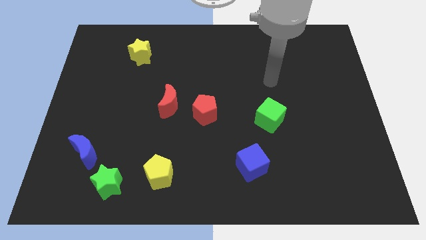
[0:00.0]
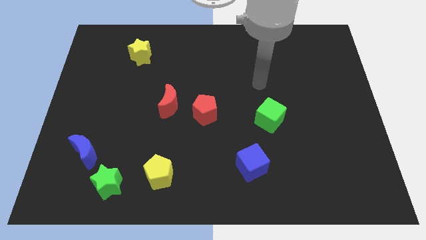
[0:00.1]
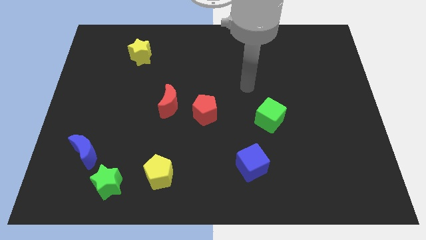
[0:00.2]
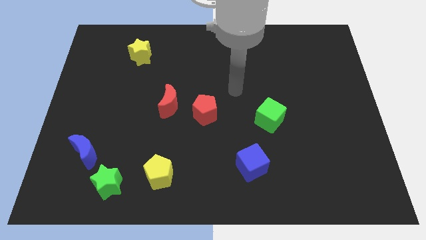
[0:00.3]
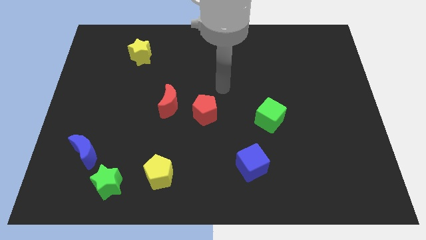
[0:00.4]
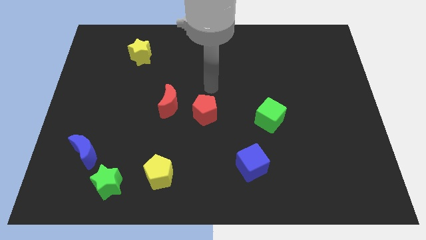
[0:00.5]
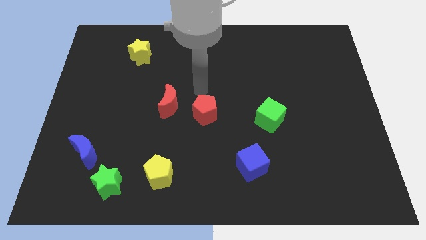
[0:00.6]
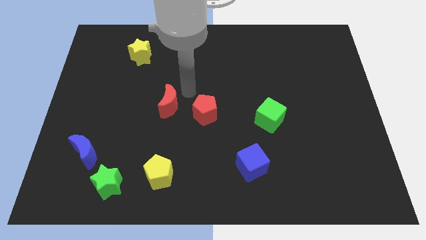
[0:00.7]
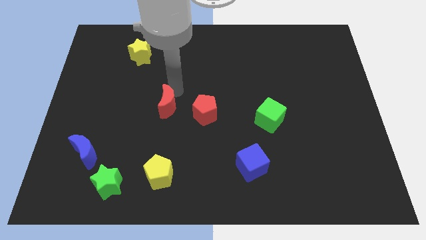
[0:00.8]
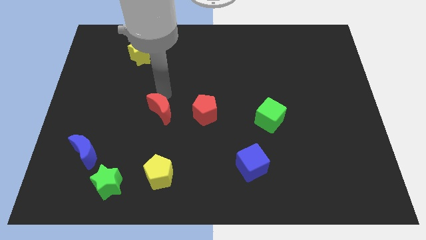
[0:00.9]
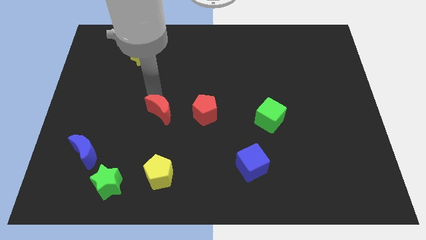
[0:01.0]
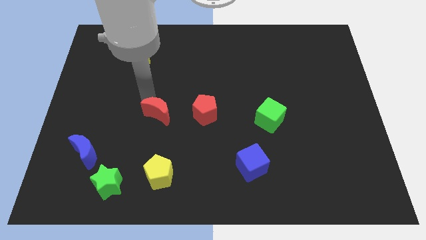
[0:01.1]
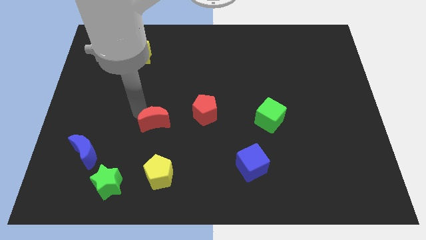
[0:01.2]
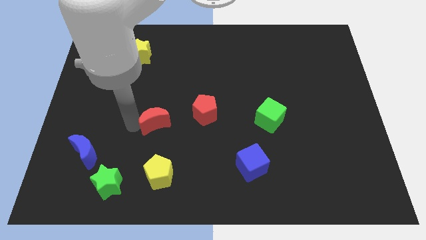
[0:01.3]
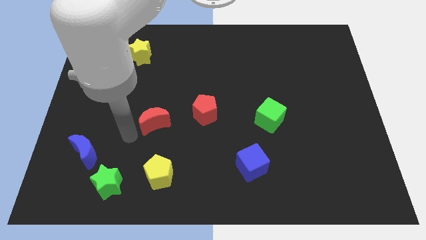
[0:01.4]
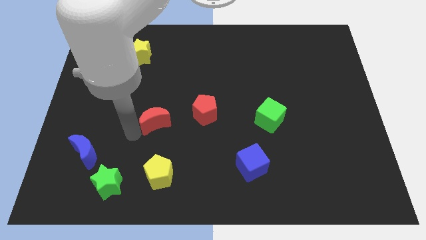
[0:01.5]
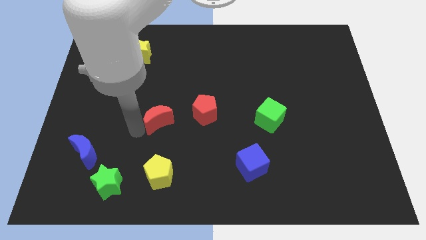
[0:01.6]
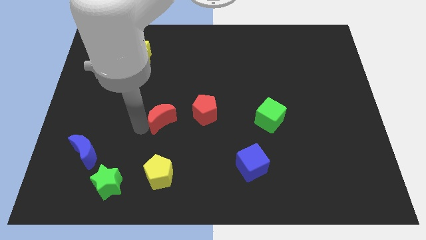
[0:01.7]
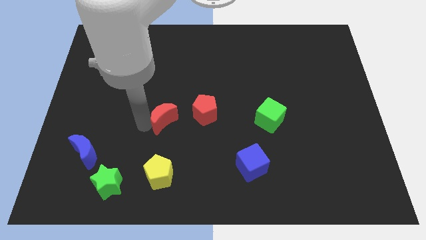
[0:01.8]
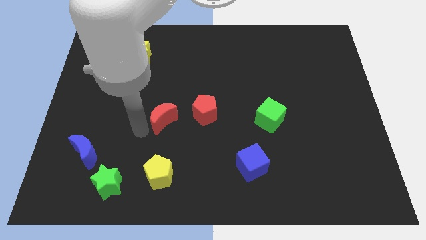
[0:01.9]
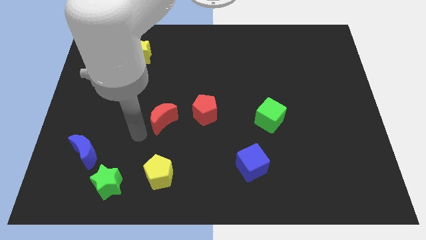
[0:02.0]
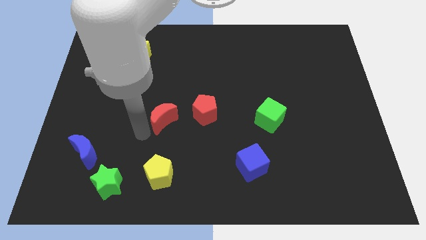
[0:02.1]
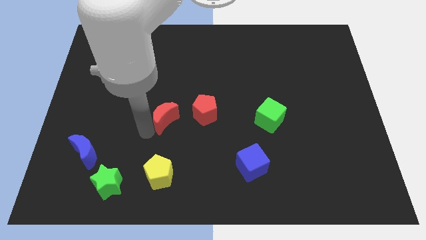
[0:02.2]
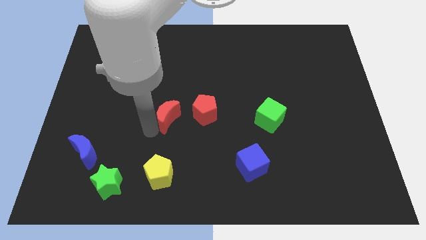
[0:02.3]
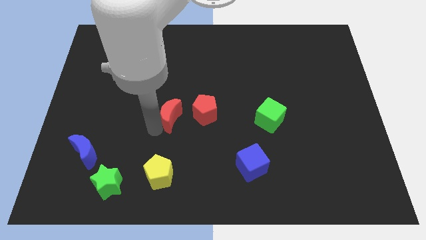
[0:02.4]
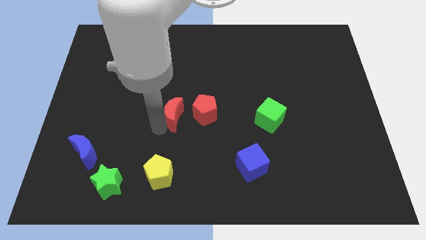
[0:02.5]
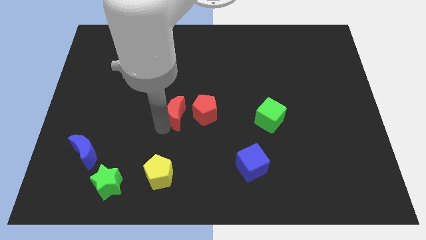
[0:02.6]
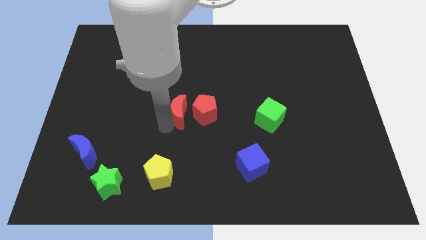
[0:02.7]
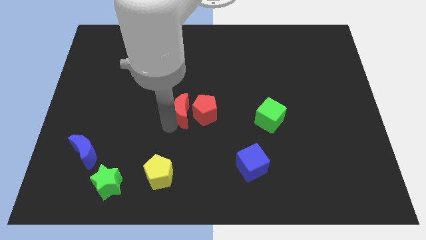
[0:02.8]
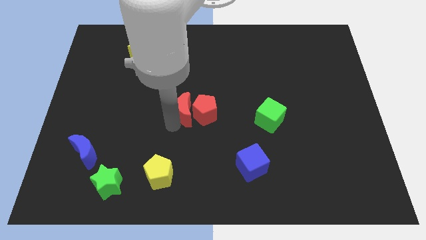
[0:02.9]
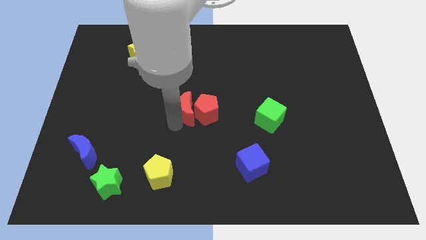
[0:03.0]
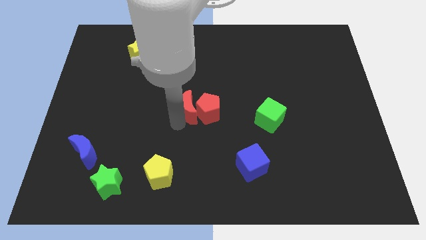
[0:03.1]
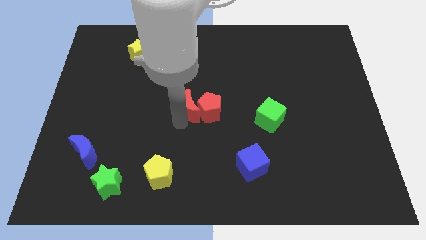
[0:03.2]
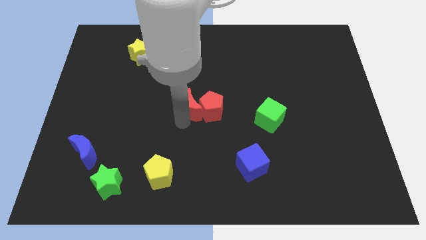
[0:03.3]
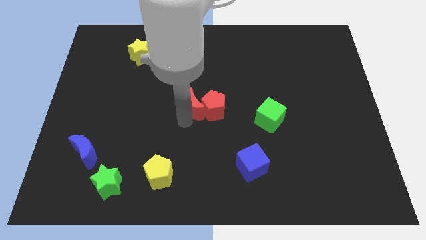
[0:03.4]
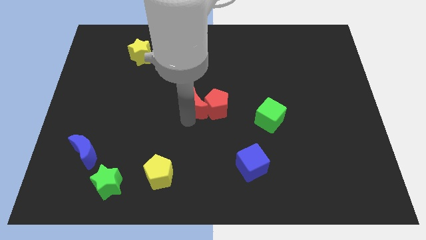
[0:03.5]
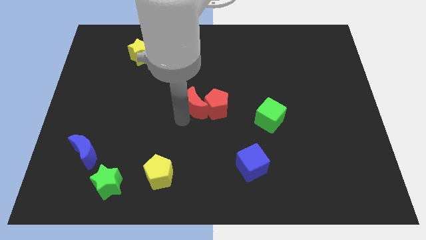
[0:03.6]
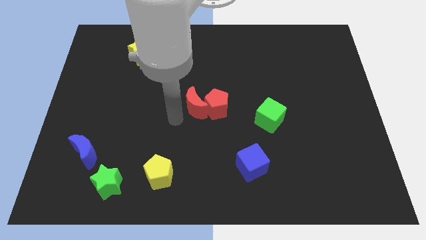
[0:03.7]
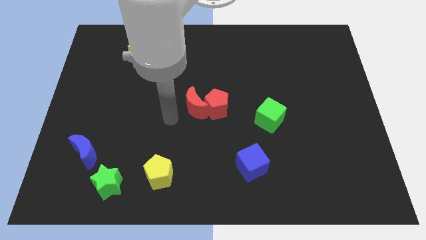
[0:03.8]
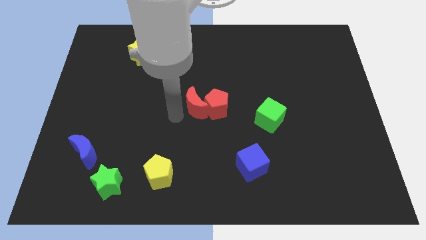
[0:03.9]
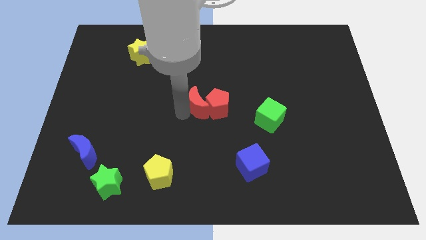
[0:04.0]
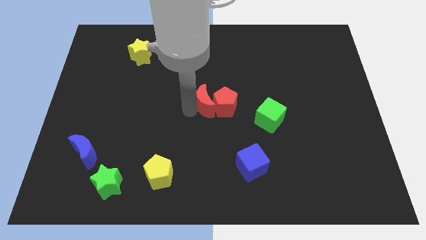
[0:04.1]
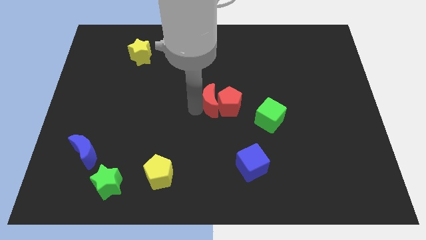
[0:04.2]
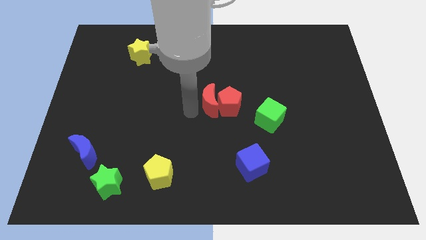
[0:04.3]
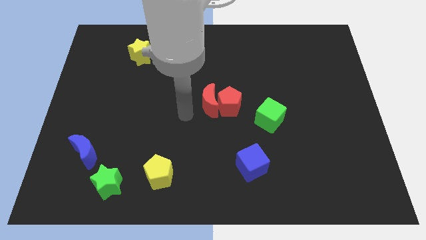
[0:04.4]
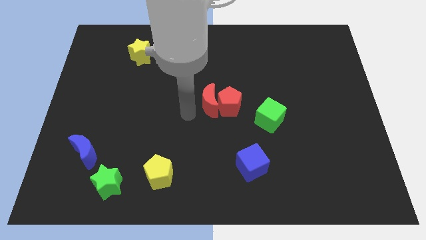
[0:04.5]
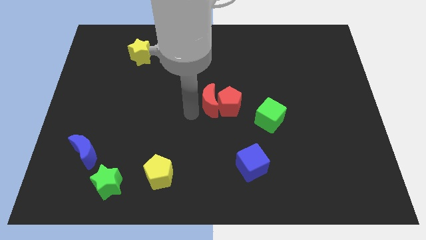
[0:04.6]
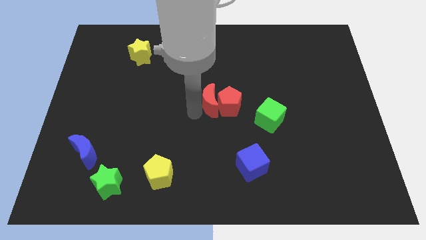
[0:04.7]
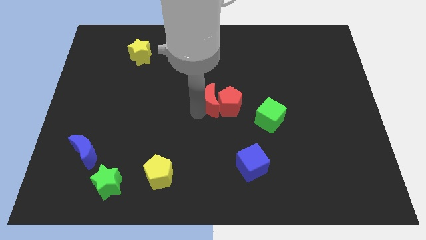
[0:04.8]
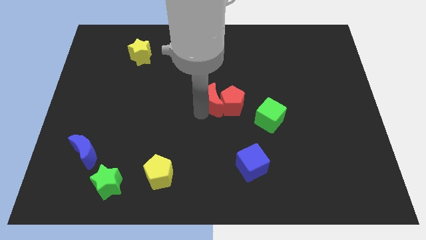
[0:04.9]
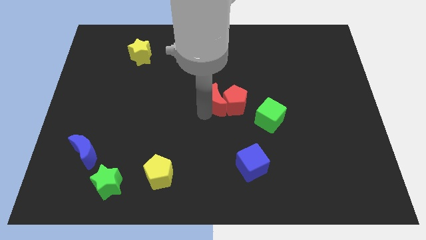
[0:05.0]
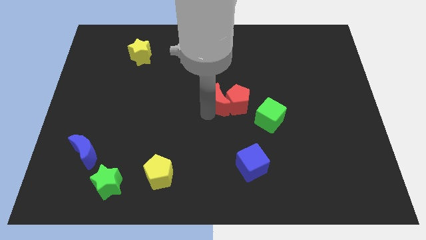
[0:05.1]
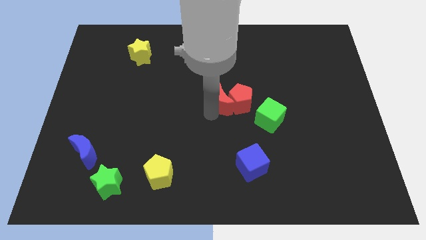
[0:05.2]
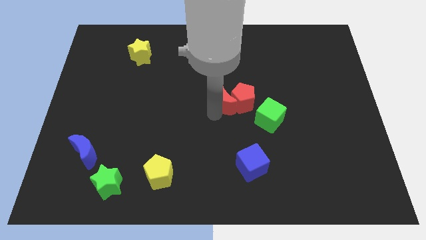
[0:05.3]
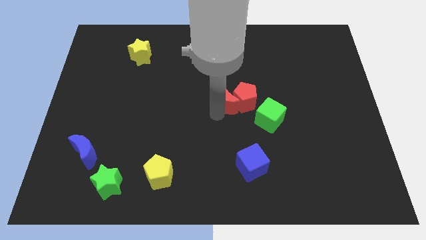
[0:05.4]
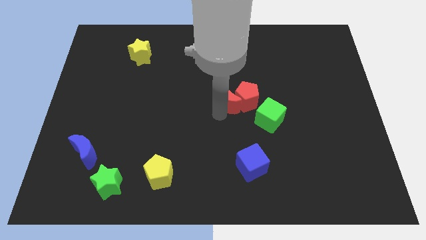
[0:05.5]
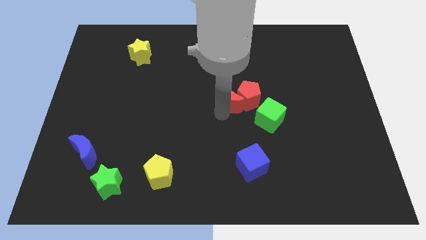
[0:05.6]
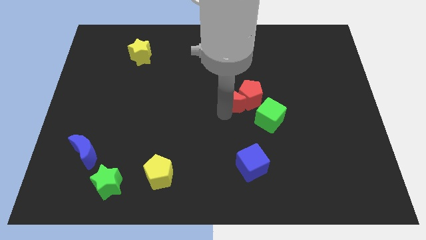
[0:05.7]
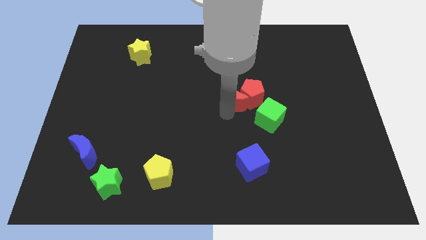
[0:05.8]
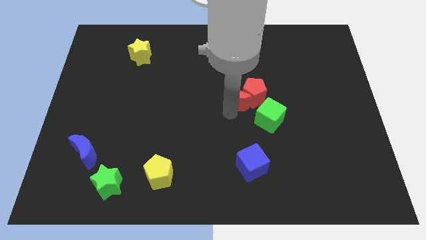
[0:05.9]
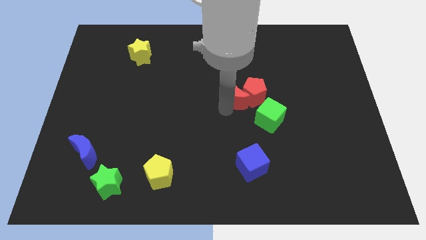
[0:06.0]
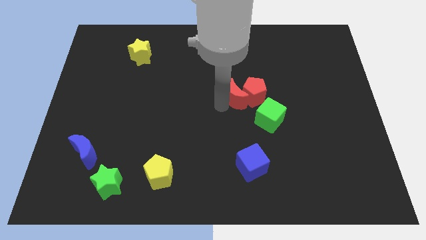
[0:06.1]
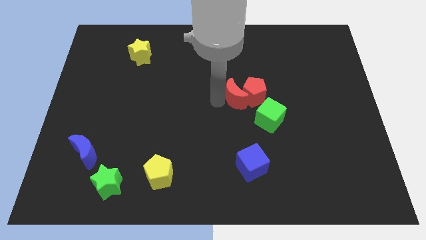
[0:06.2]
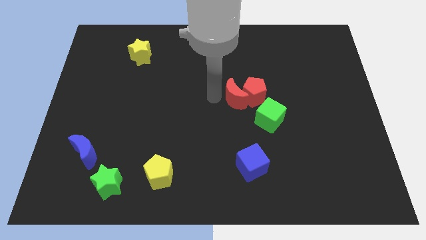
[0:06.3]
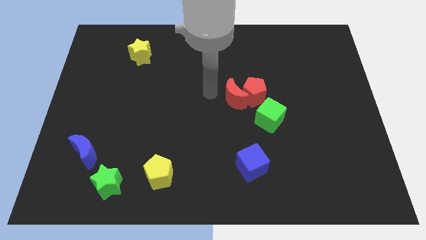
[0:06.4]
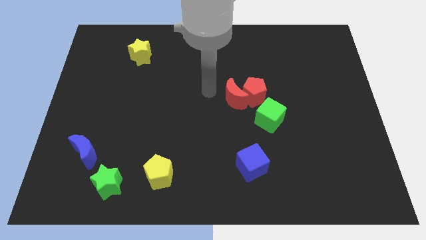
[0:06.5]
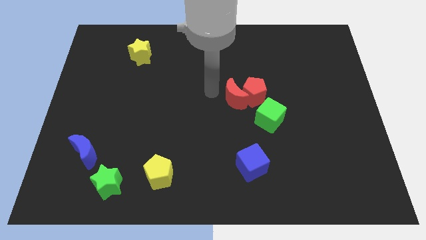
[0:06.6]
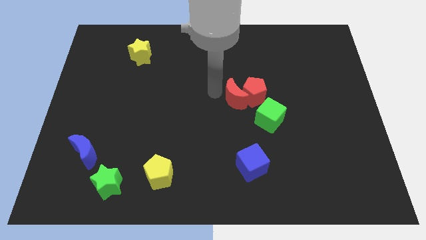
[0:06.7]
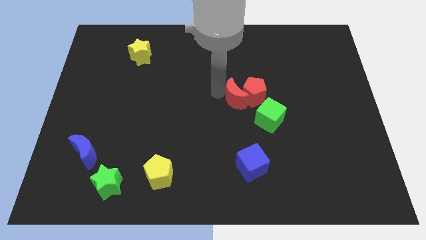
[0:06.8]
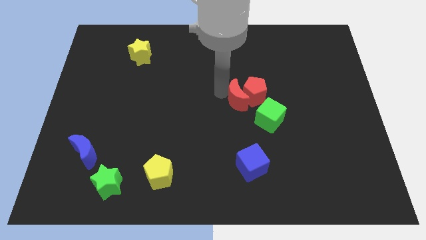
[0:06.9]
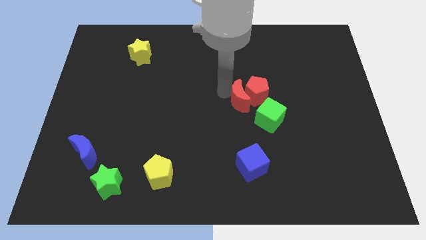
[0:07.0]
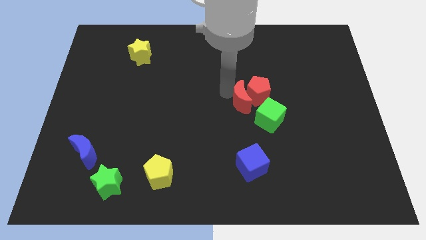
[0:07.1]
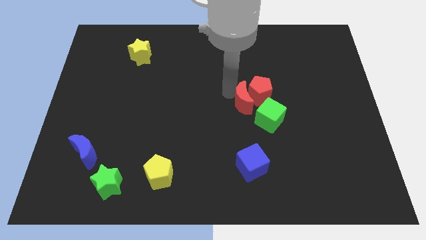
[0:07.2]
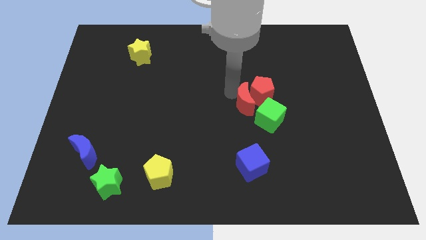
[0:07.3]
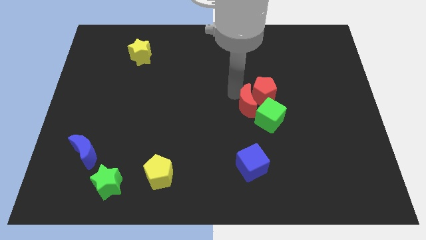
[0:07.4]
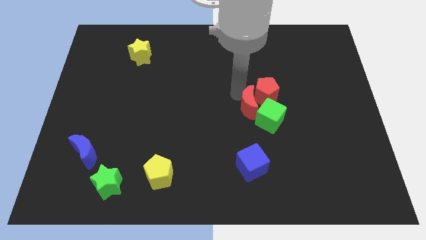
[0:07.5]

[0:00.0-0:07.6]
move the red moon towards the green cube
